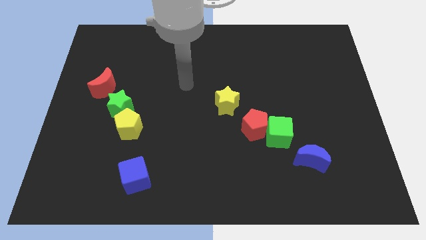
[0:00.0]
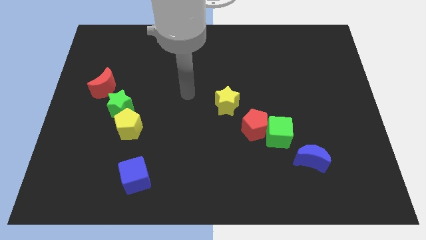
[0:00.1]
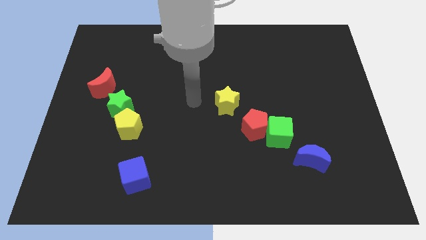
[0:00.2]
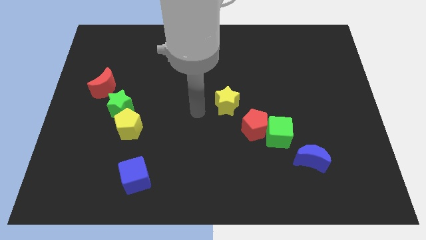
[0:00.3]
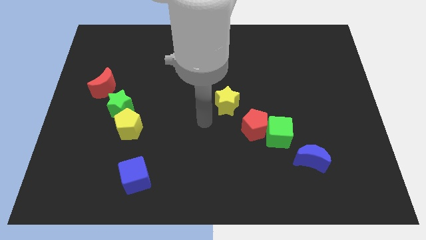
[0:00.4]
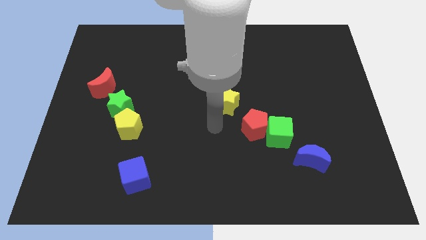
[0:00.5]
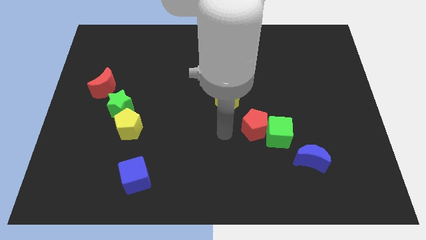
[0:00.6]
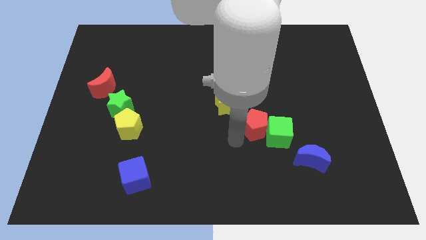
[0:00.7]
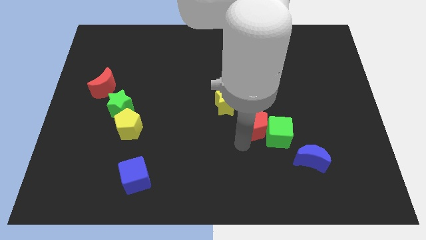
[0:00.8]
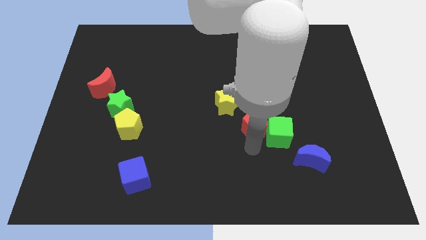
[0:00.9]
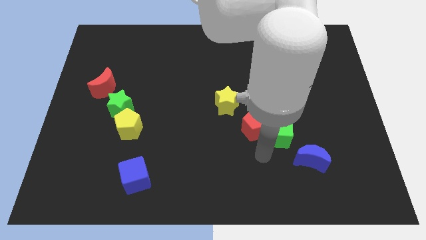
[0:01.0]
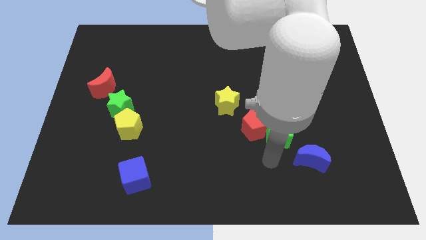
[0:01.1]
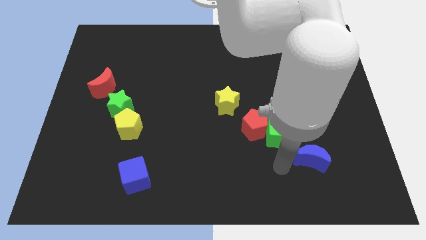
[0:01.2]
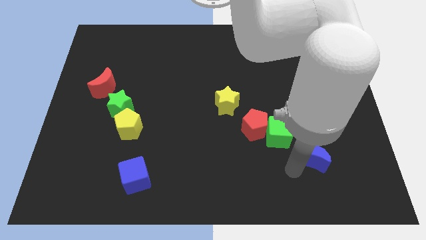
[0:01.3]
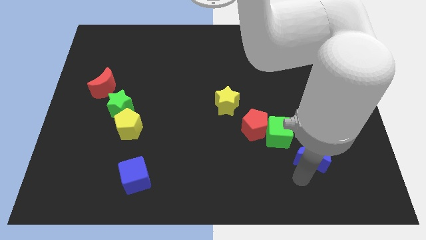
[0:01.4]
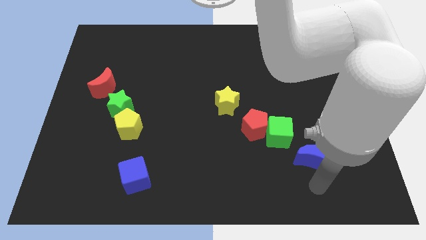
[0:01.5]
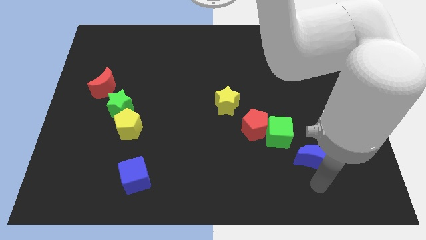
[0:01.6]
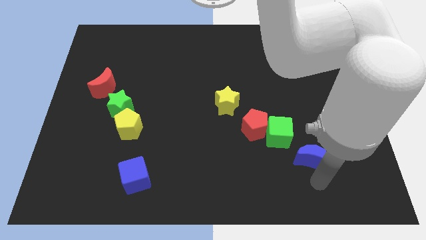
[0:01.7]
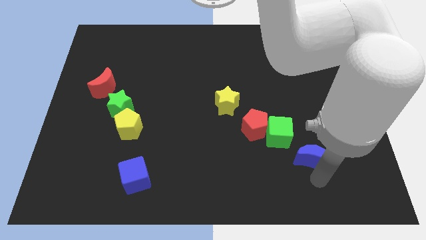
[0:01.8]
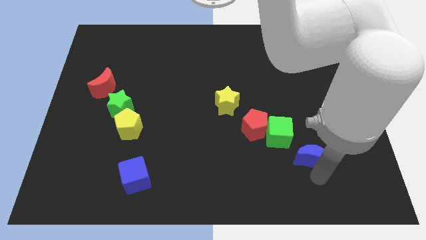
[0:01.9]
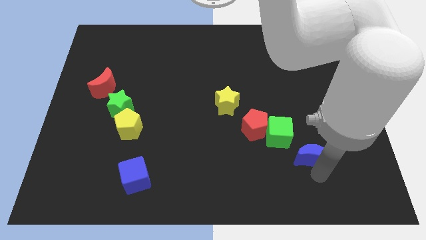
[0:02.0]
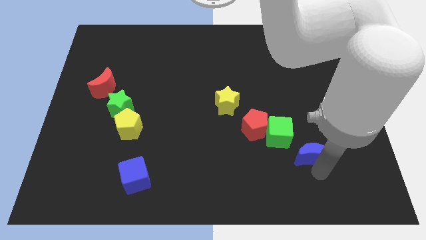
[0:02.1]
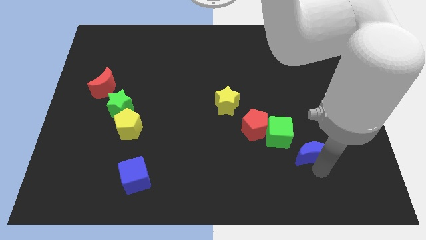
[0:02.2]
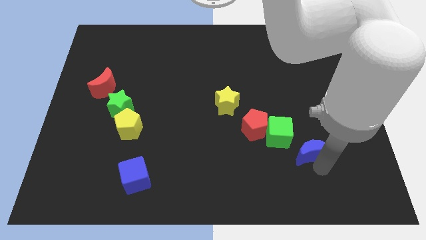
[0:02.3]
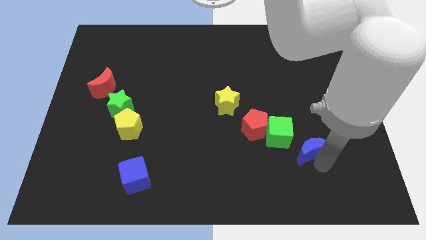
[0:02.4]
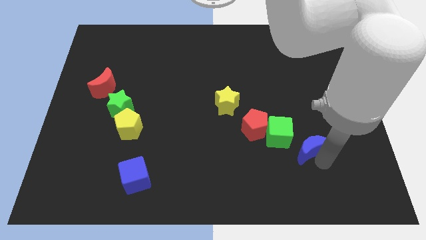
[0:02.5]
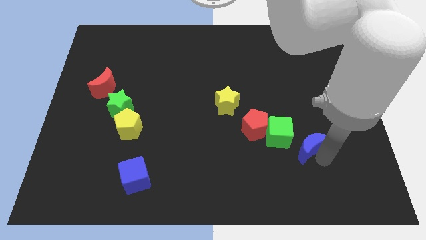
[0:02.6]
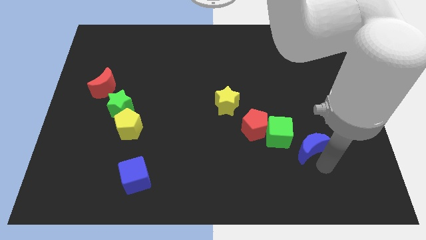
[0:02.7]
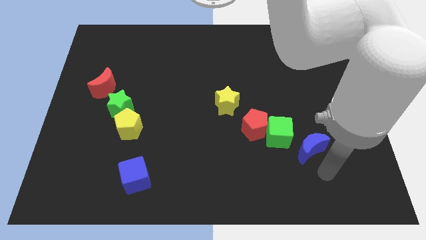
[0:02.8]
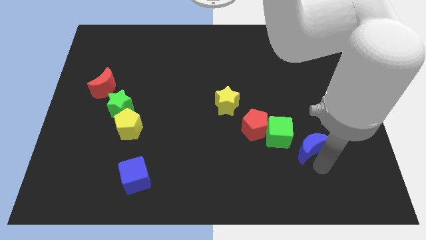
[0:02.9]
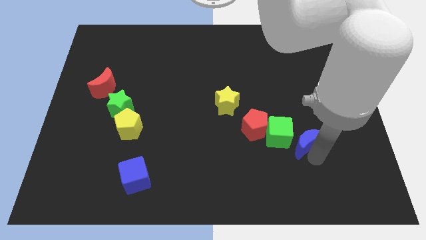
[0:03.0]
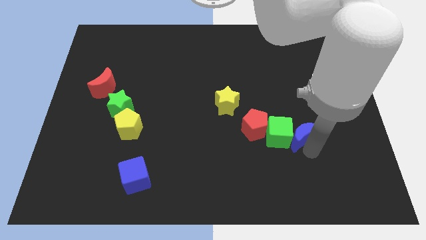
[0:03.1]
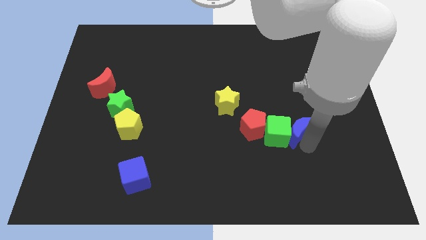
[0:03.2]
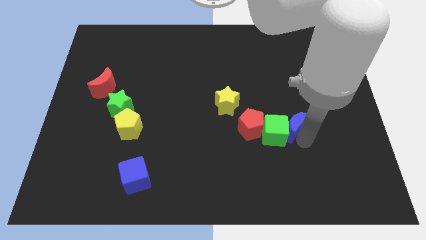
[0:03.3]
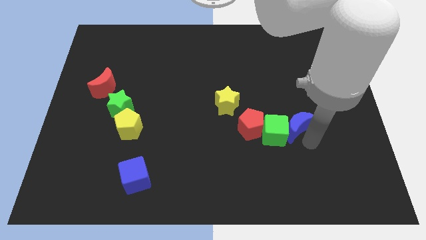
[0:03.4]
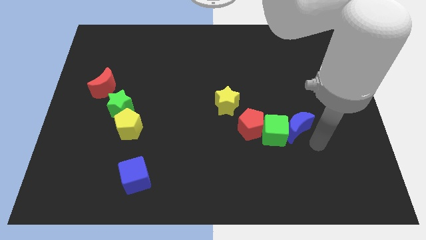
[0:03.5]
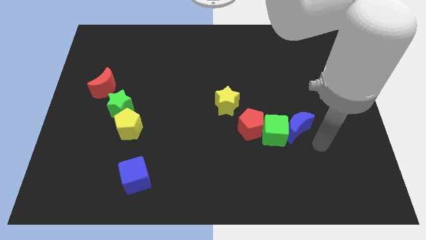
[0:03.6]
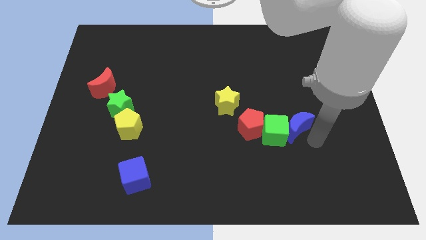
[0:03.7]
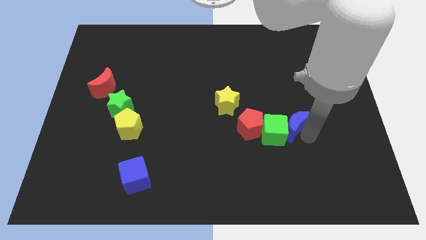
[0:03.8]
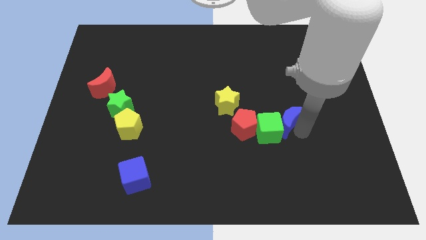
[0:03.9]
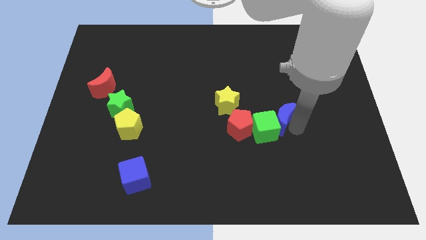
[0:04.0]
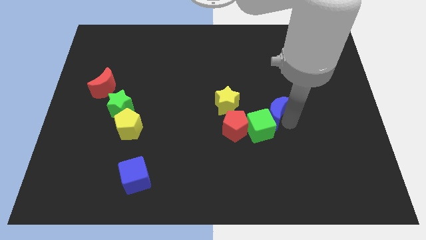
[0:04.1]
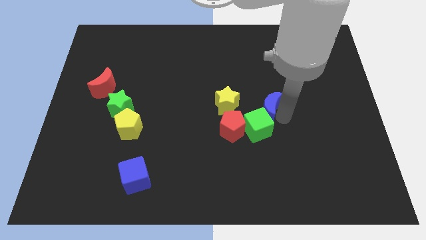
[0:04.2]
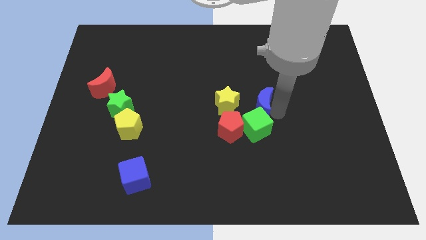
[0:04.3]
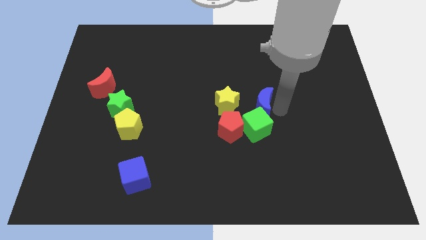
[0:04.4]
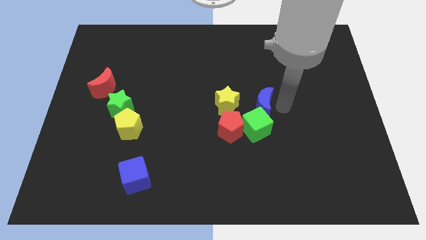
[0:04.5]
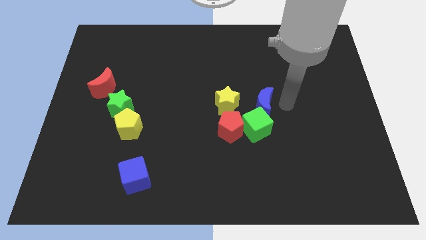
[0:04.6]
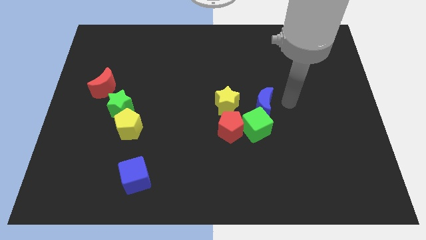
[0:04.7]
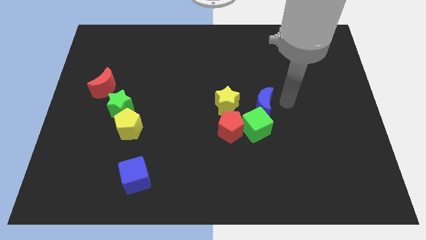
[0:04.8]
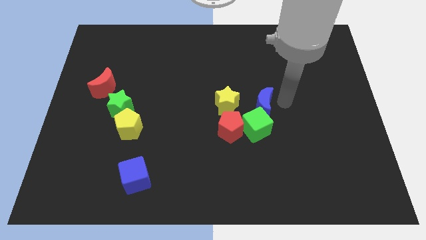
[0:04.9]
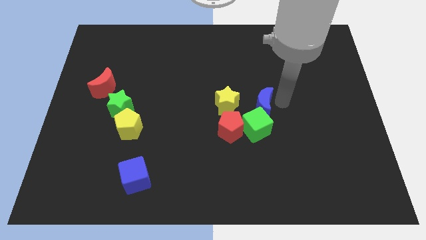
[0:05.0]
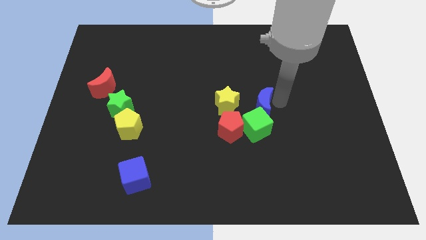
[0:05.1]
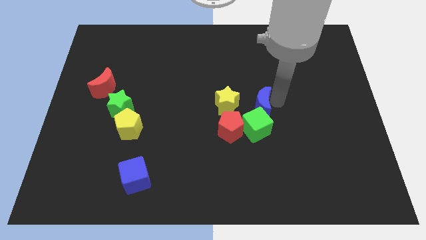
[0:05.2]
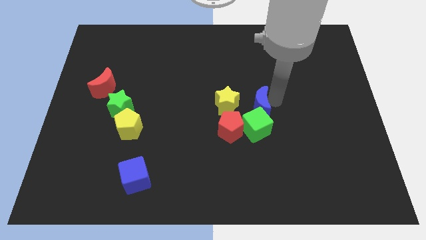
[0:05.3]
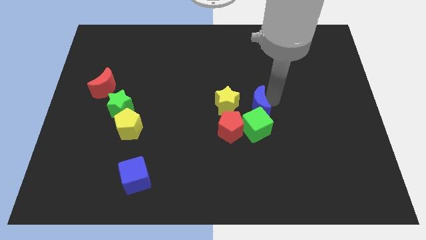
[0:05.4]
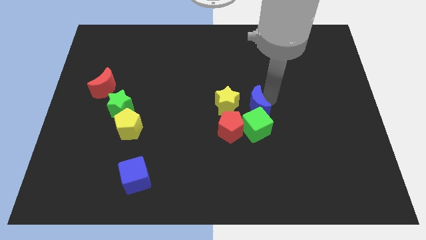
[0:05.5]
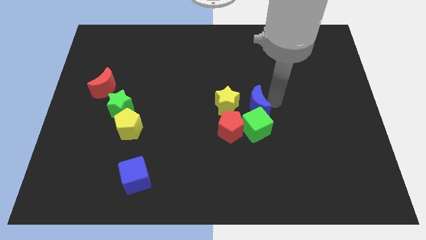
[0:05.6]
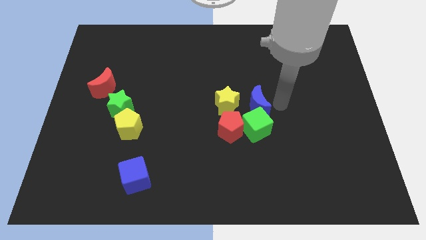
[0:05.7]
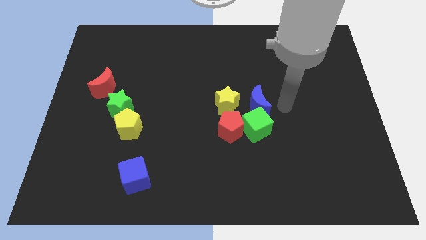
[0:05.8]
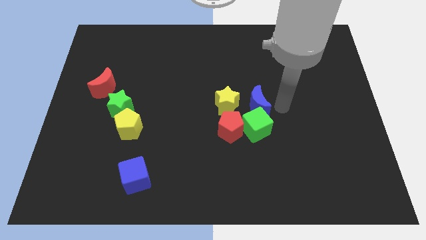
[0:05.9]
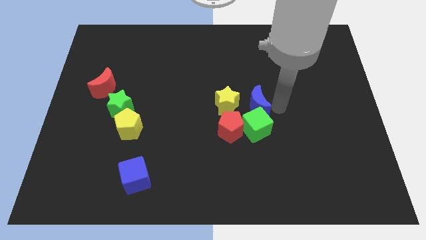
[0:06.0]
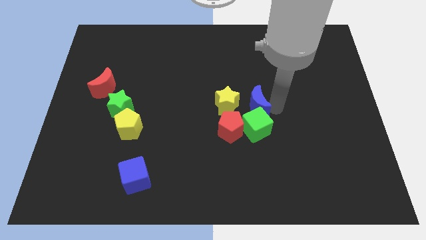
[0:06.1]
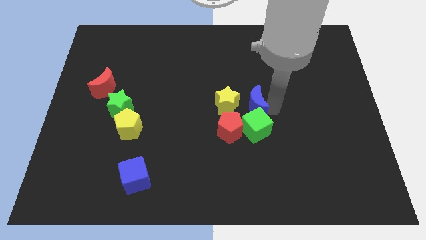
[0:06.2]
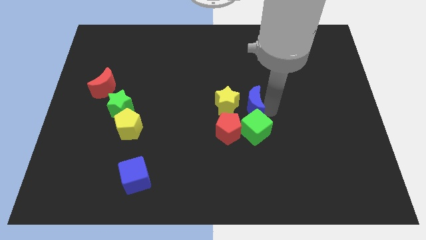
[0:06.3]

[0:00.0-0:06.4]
push the blue moon close to the yellow star
